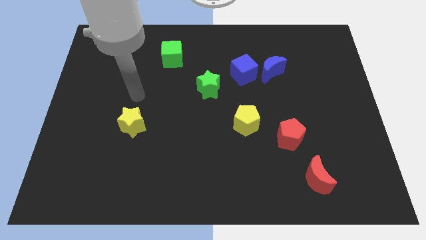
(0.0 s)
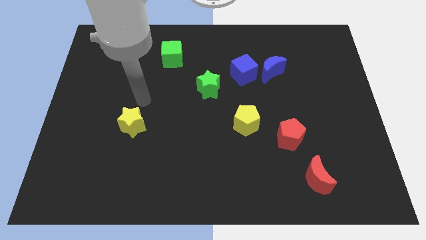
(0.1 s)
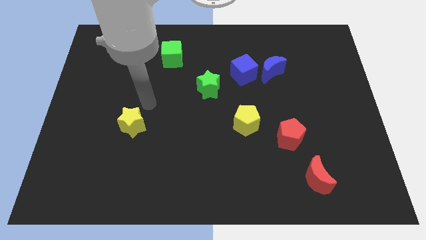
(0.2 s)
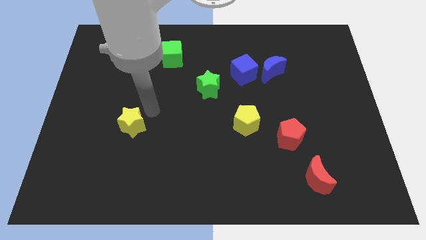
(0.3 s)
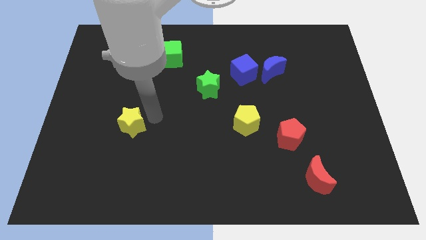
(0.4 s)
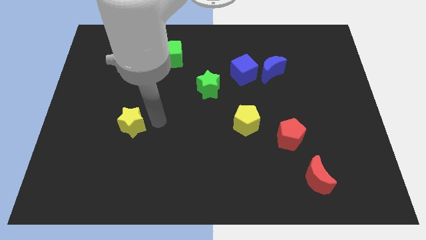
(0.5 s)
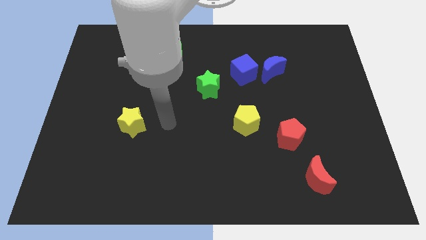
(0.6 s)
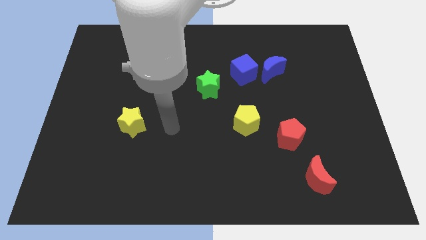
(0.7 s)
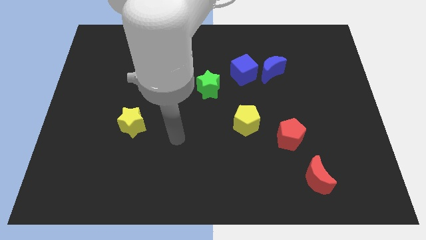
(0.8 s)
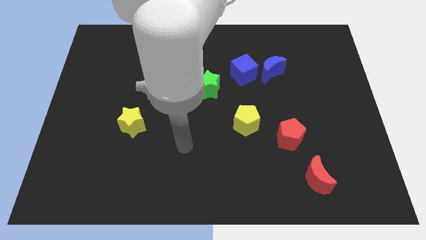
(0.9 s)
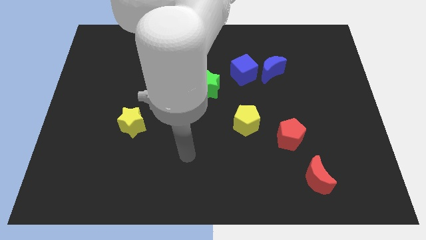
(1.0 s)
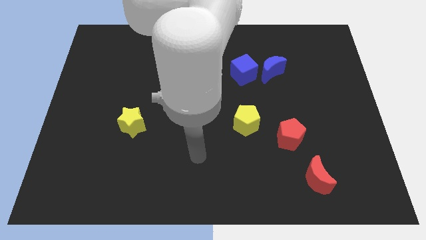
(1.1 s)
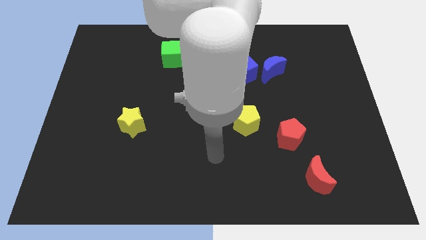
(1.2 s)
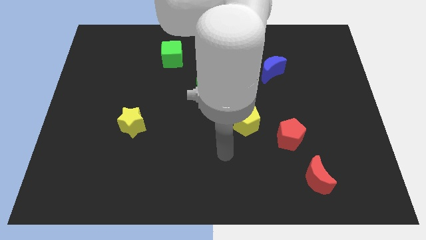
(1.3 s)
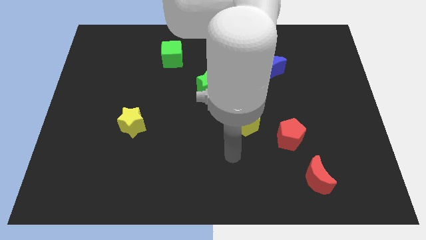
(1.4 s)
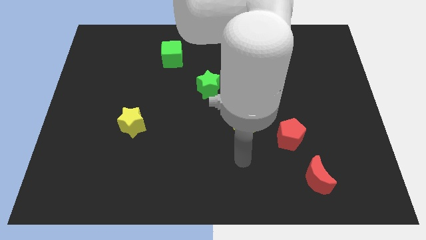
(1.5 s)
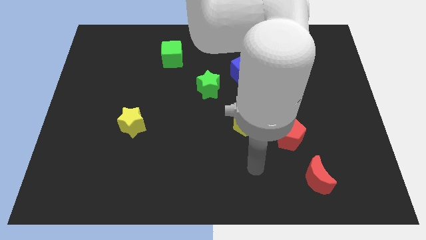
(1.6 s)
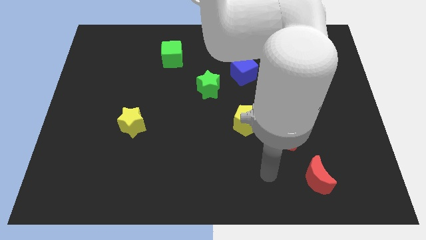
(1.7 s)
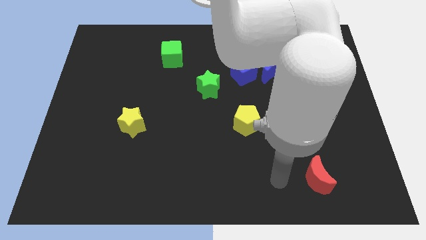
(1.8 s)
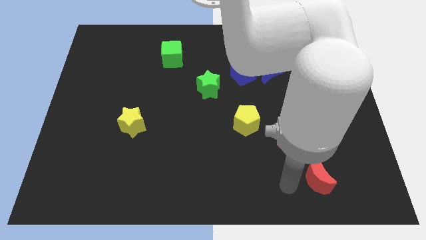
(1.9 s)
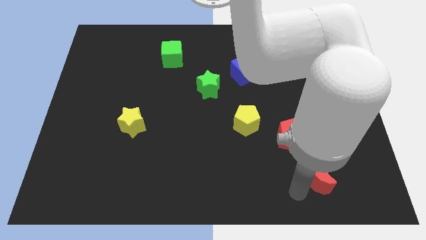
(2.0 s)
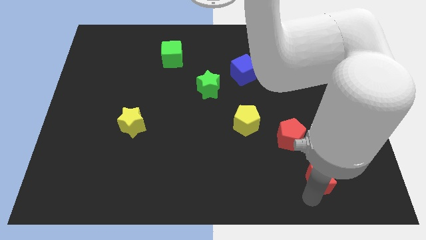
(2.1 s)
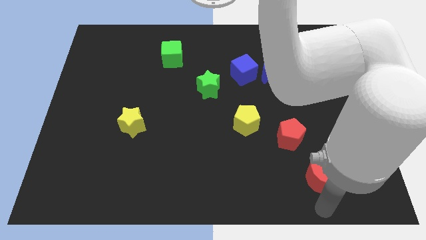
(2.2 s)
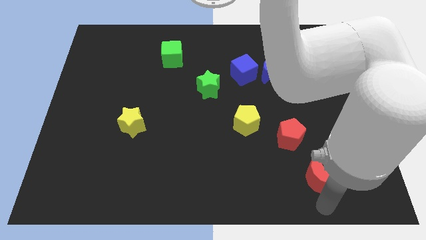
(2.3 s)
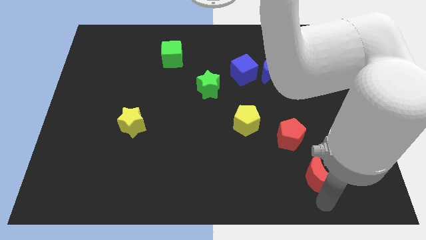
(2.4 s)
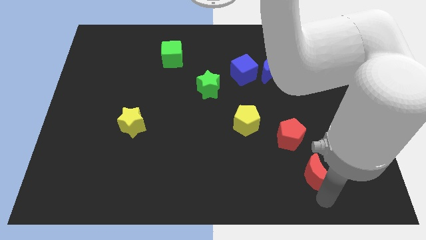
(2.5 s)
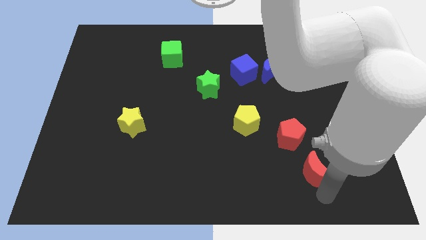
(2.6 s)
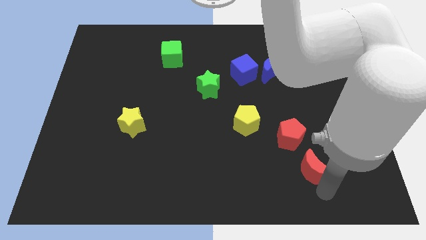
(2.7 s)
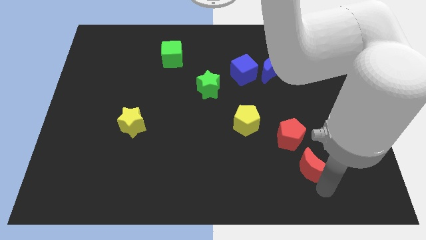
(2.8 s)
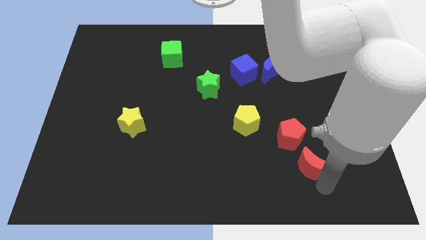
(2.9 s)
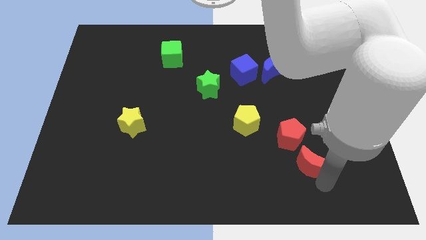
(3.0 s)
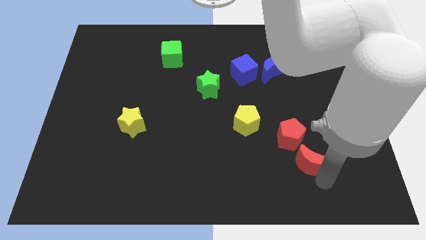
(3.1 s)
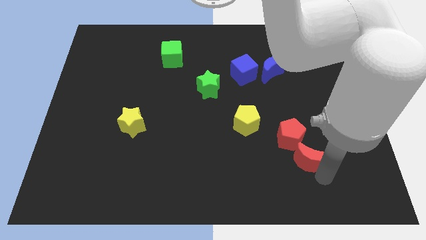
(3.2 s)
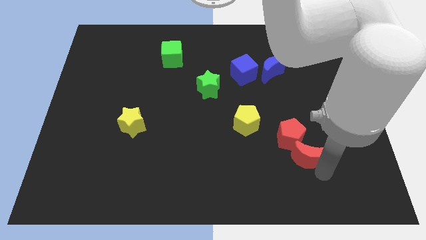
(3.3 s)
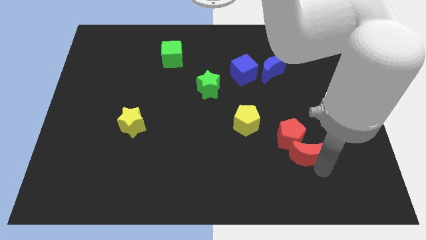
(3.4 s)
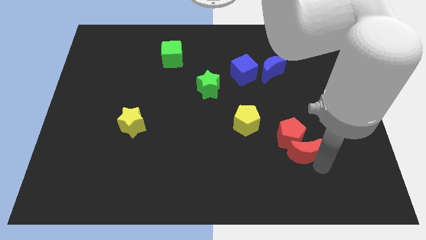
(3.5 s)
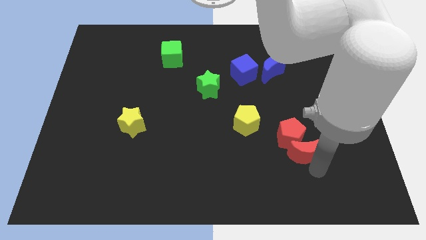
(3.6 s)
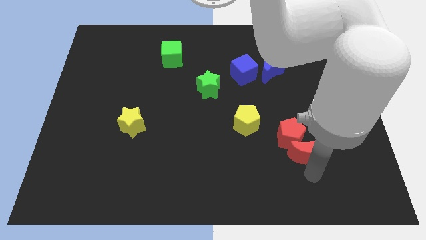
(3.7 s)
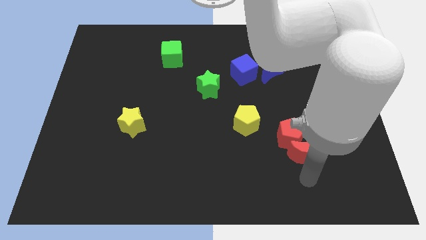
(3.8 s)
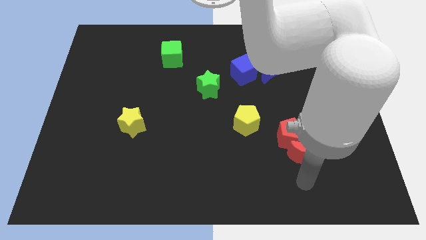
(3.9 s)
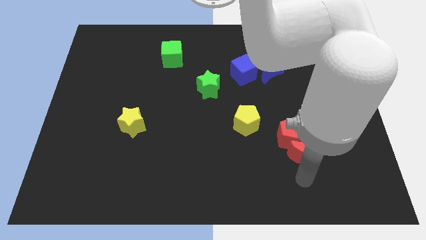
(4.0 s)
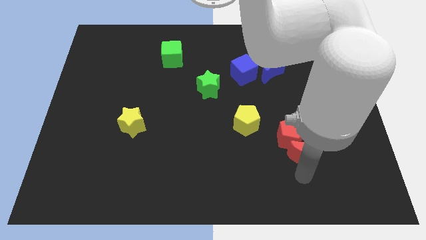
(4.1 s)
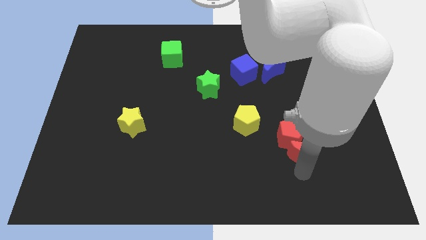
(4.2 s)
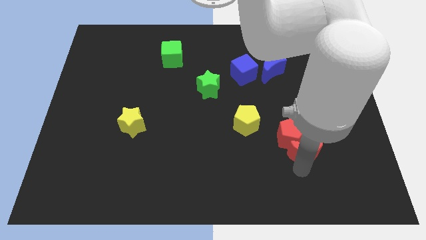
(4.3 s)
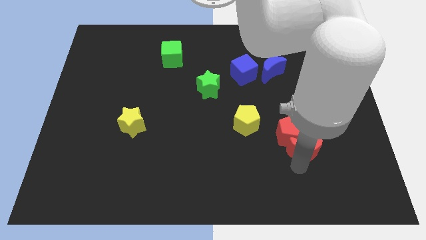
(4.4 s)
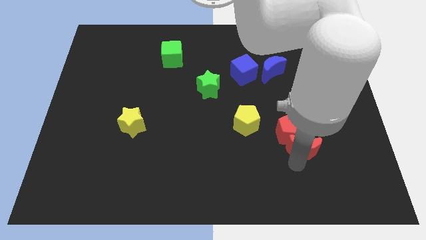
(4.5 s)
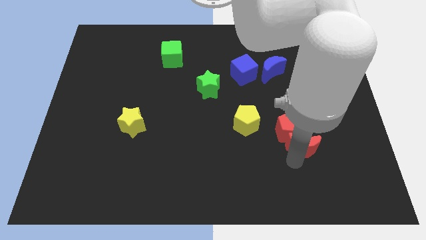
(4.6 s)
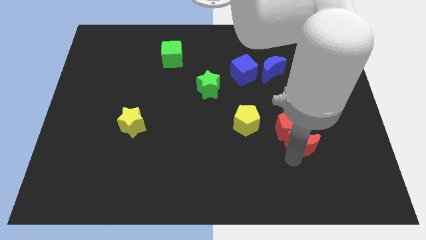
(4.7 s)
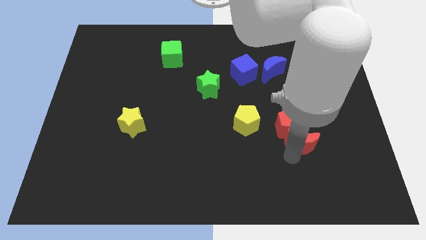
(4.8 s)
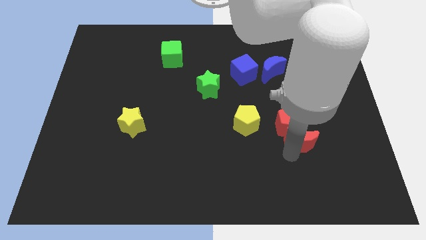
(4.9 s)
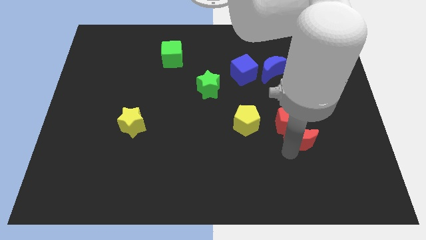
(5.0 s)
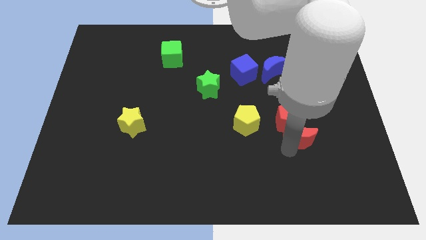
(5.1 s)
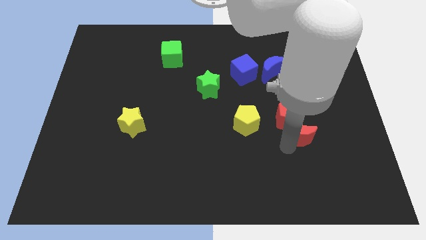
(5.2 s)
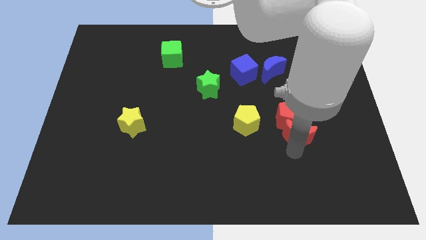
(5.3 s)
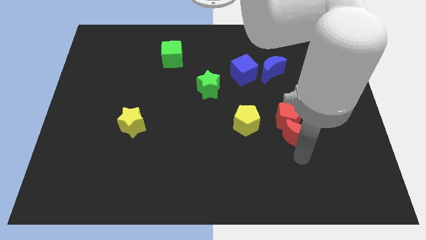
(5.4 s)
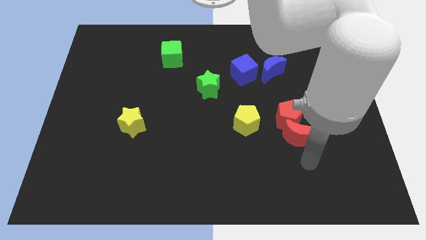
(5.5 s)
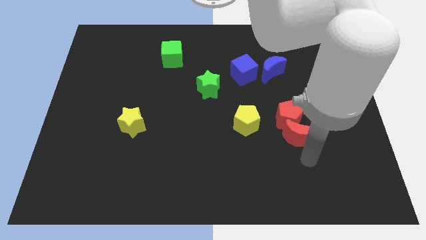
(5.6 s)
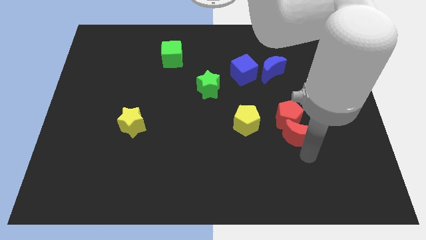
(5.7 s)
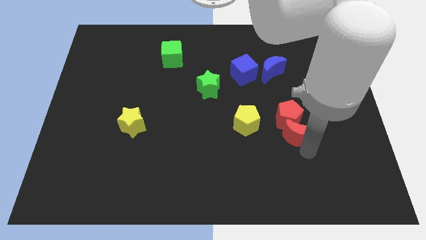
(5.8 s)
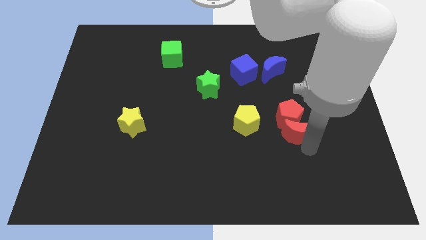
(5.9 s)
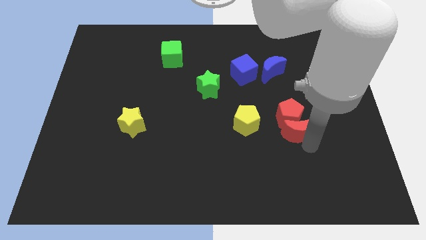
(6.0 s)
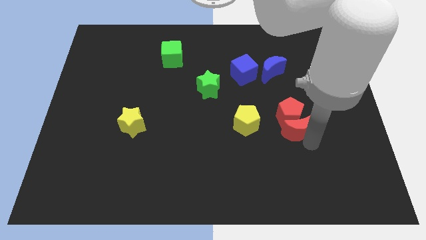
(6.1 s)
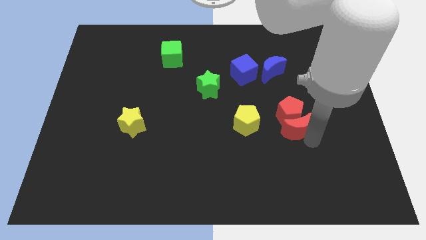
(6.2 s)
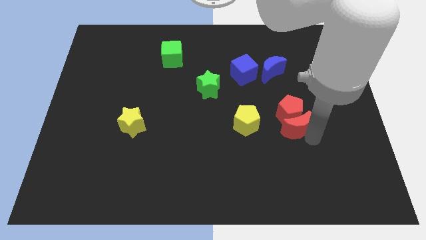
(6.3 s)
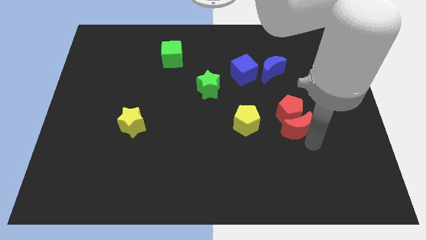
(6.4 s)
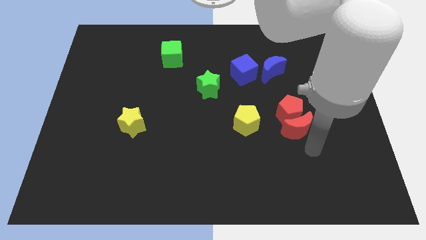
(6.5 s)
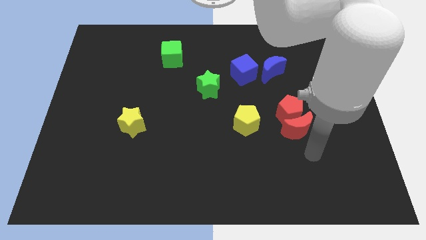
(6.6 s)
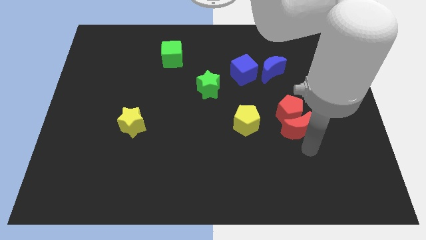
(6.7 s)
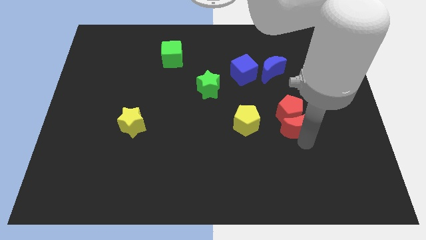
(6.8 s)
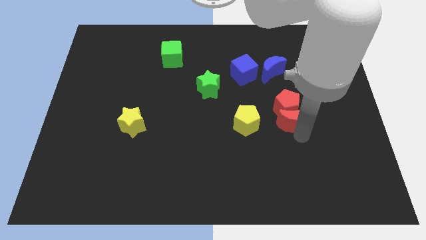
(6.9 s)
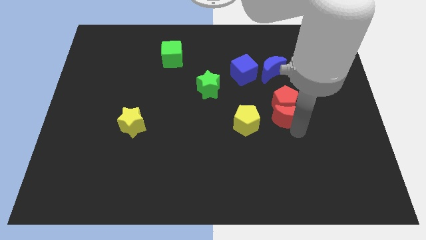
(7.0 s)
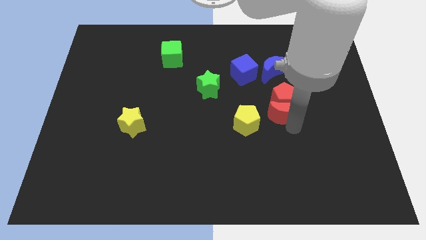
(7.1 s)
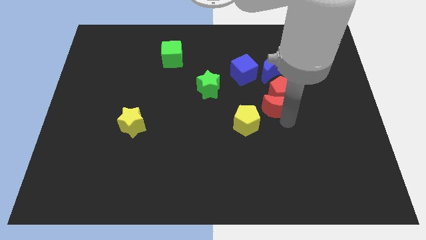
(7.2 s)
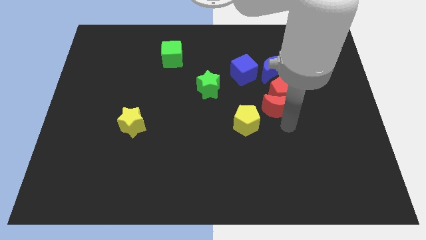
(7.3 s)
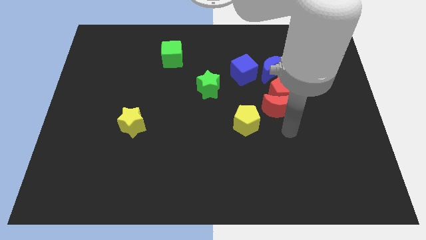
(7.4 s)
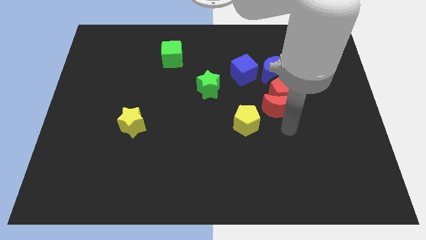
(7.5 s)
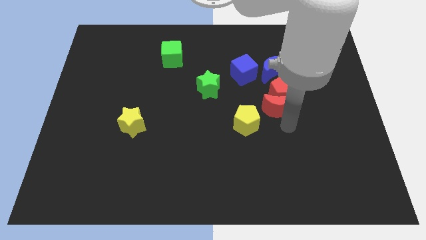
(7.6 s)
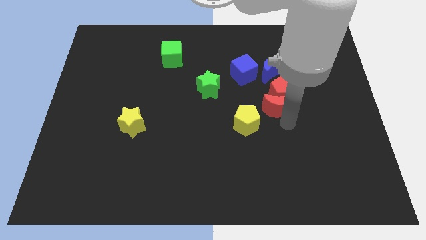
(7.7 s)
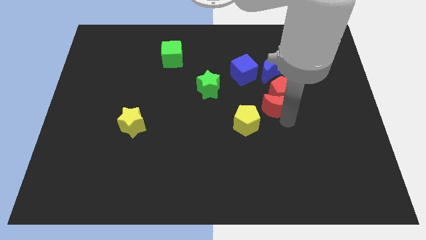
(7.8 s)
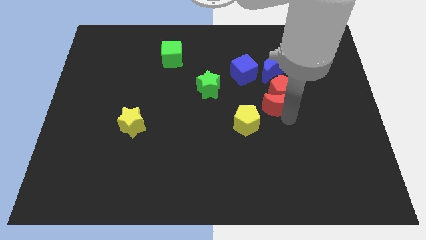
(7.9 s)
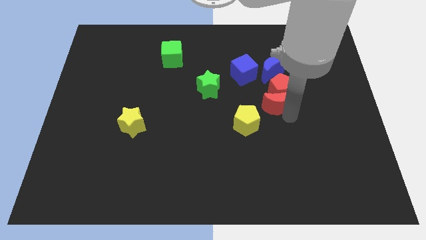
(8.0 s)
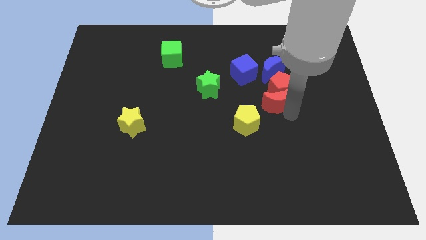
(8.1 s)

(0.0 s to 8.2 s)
put the red moon to the bottom right of the blue cube
